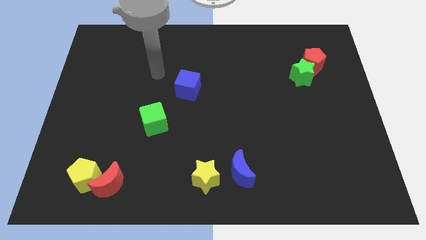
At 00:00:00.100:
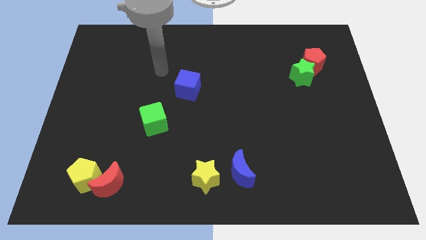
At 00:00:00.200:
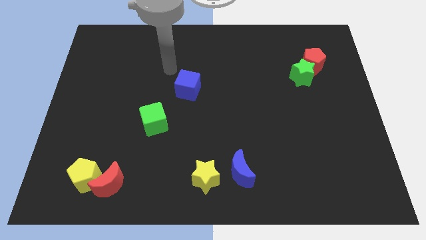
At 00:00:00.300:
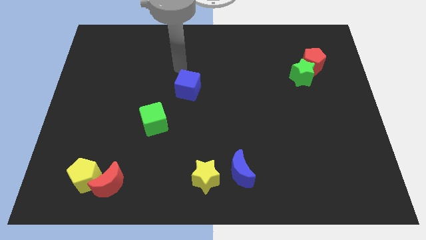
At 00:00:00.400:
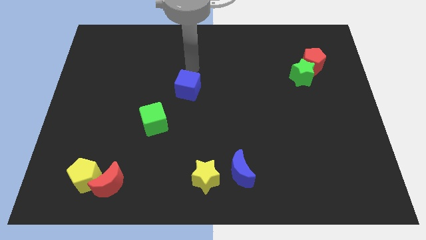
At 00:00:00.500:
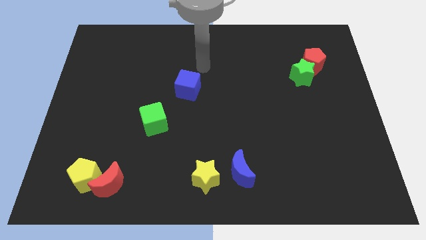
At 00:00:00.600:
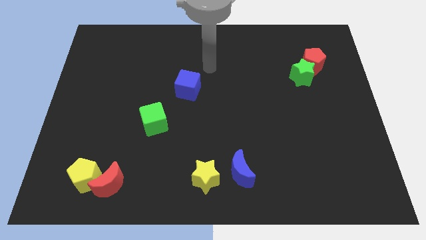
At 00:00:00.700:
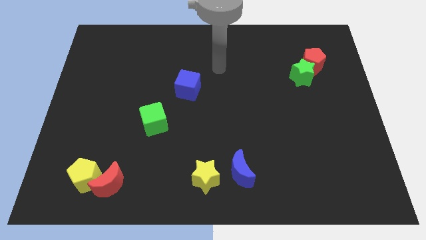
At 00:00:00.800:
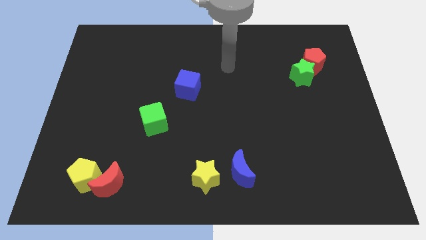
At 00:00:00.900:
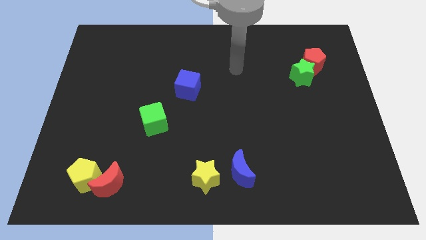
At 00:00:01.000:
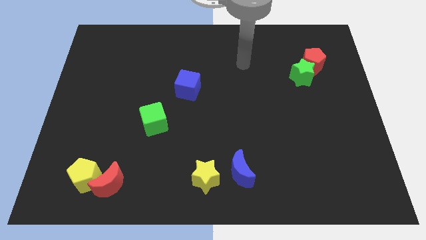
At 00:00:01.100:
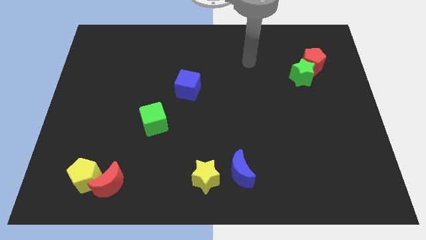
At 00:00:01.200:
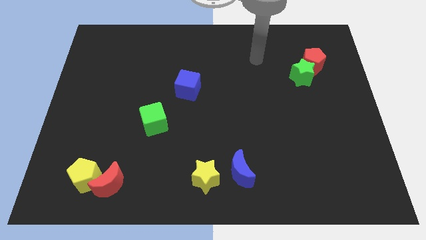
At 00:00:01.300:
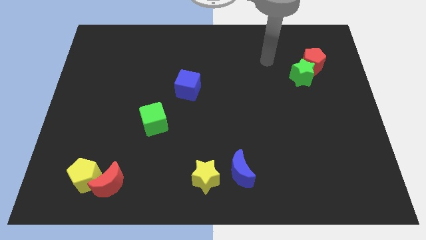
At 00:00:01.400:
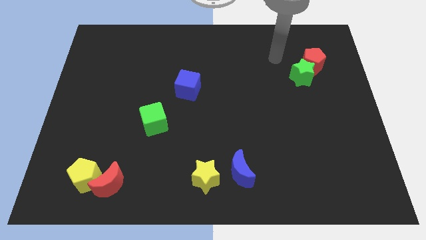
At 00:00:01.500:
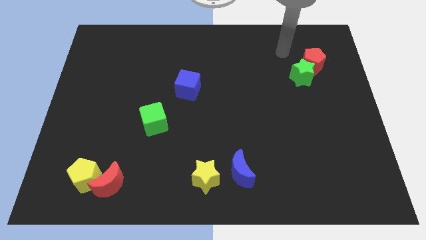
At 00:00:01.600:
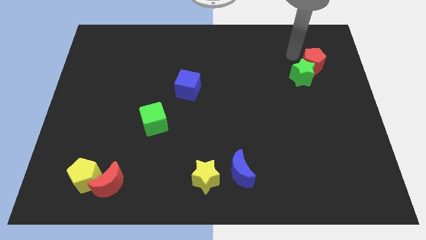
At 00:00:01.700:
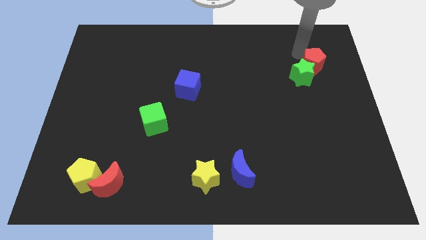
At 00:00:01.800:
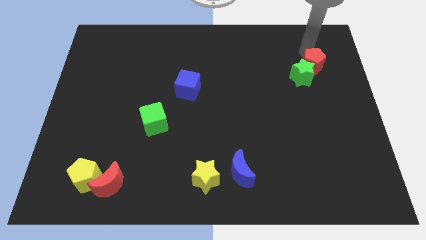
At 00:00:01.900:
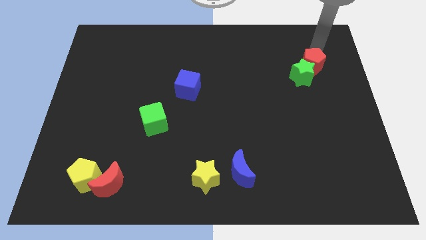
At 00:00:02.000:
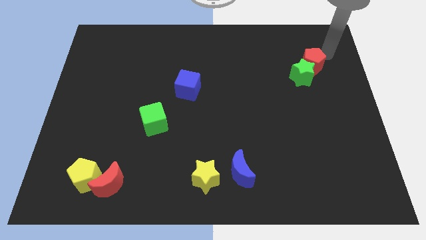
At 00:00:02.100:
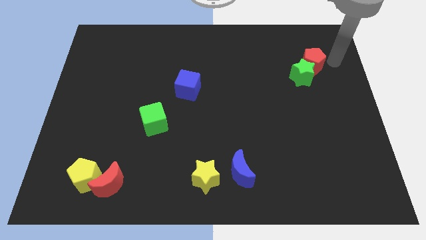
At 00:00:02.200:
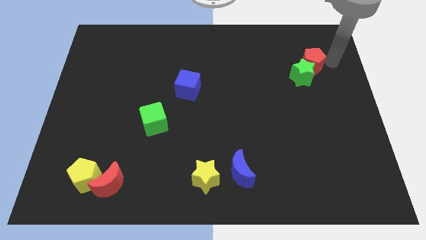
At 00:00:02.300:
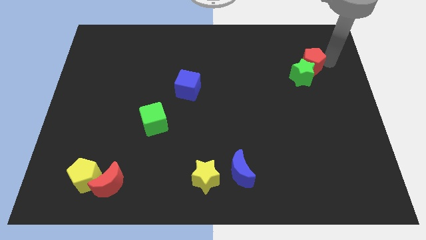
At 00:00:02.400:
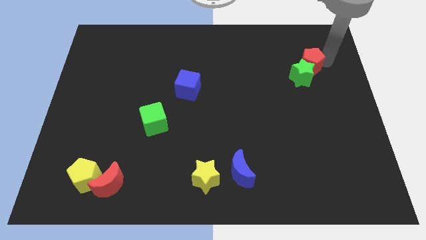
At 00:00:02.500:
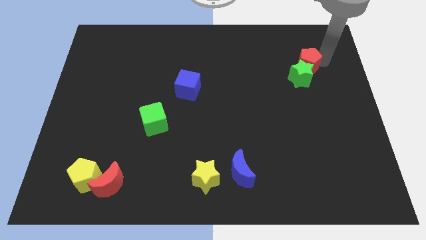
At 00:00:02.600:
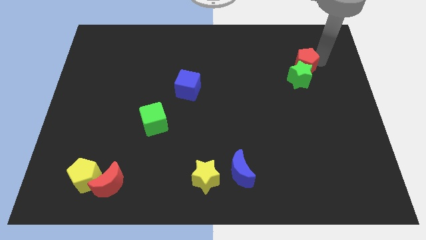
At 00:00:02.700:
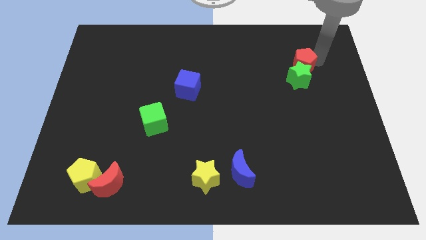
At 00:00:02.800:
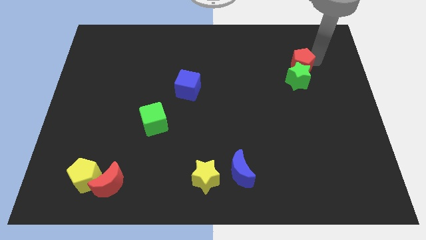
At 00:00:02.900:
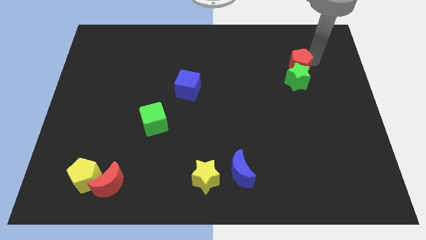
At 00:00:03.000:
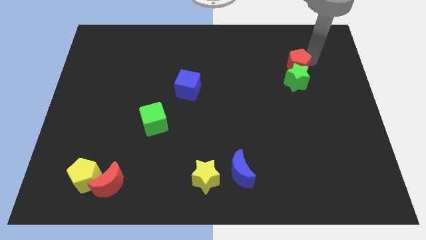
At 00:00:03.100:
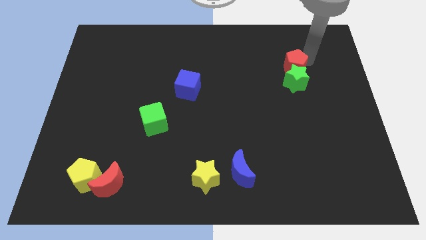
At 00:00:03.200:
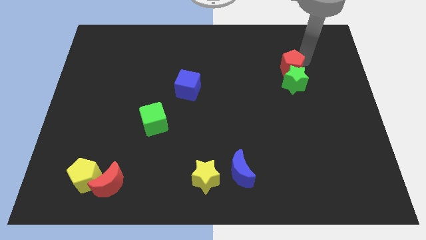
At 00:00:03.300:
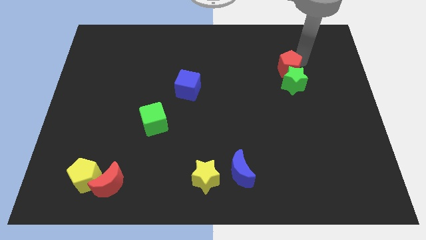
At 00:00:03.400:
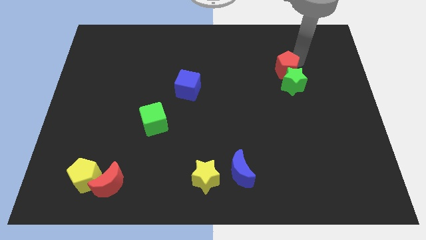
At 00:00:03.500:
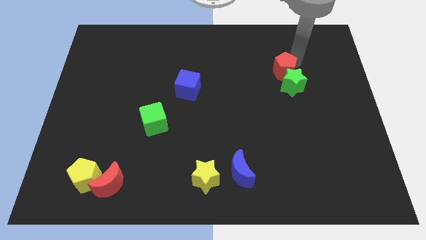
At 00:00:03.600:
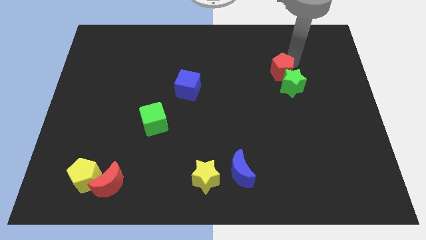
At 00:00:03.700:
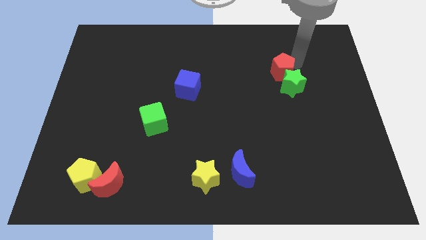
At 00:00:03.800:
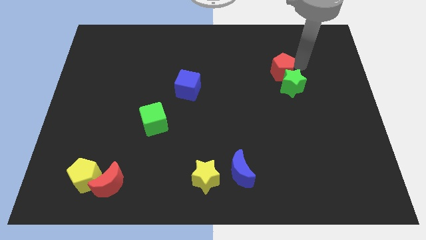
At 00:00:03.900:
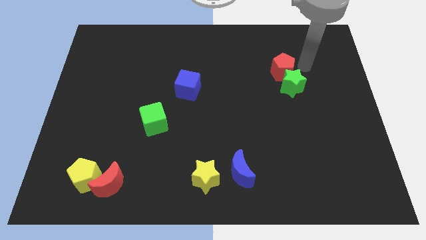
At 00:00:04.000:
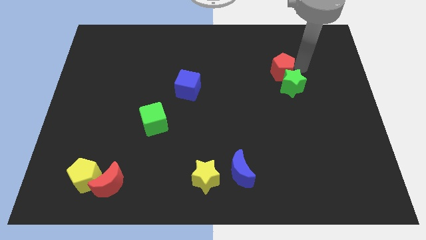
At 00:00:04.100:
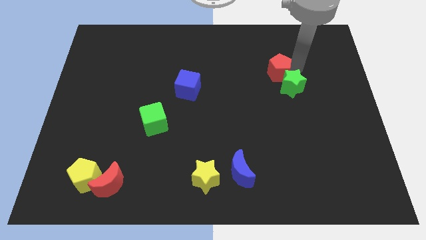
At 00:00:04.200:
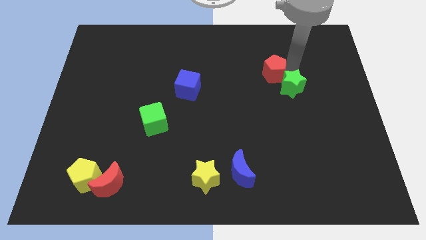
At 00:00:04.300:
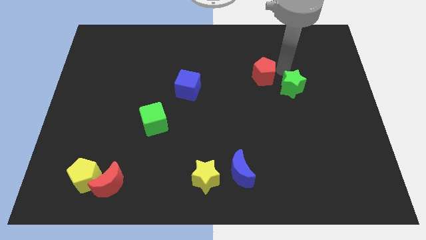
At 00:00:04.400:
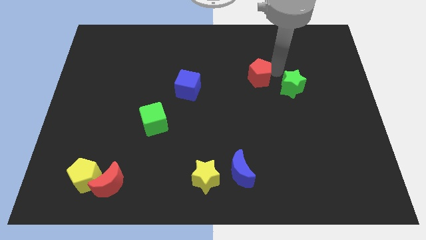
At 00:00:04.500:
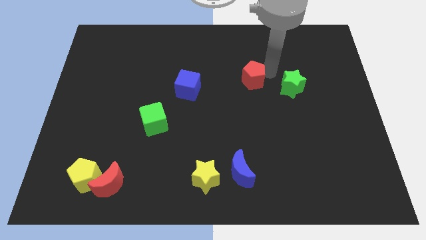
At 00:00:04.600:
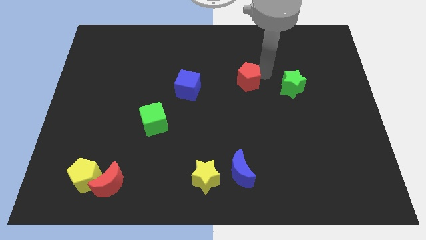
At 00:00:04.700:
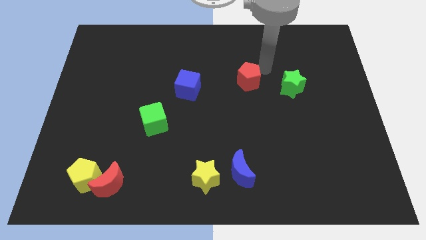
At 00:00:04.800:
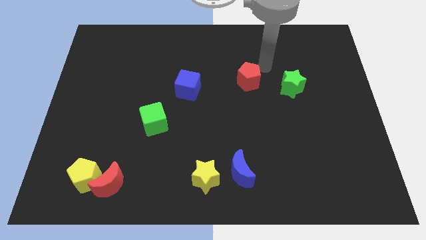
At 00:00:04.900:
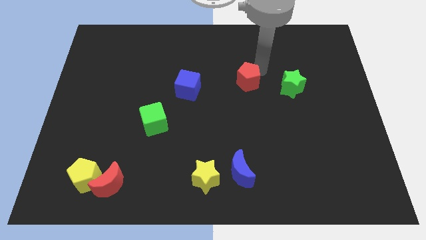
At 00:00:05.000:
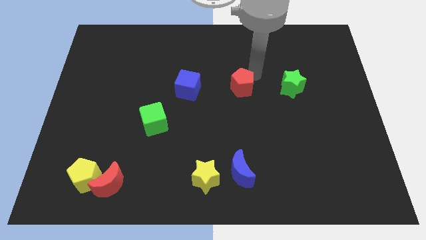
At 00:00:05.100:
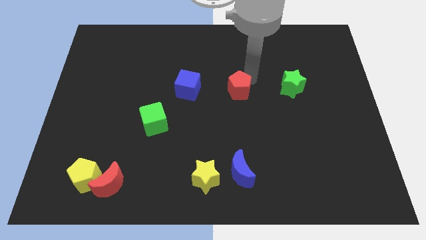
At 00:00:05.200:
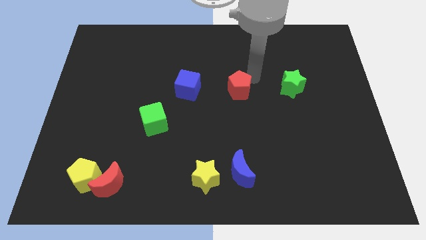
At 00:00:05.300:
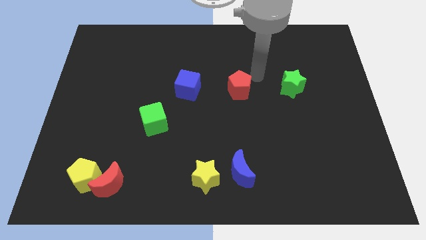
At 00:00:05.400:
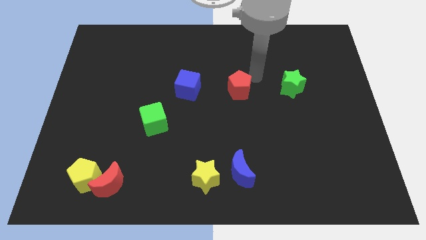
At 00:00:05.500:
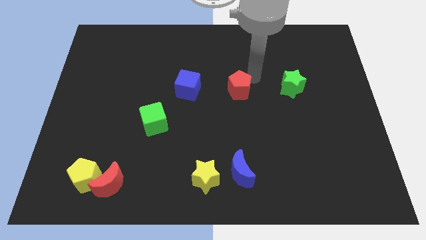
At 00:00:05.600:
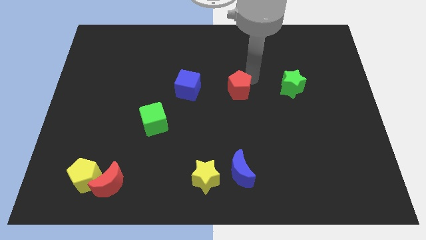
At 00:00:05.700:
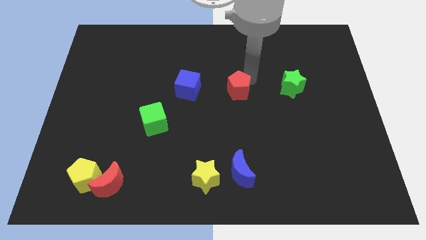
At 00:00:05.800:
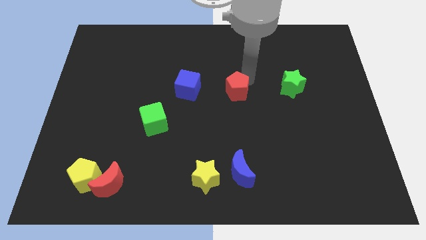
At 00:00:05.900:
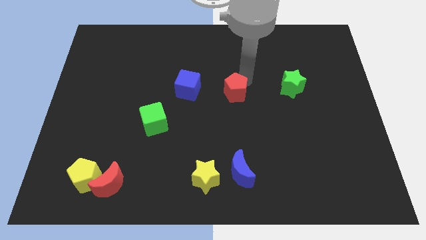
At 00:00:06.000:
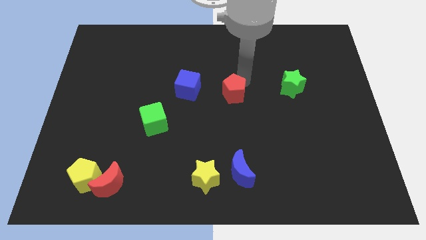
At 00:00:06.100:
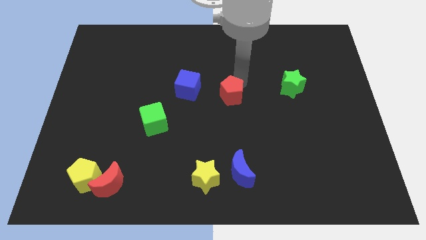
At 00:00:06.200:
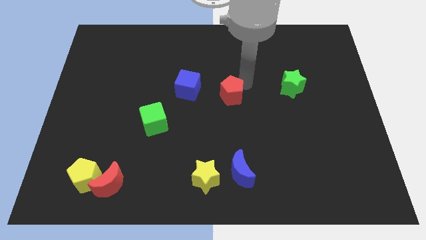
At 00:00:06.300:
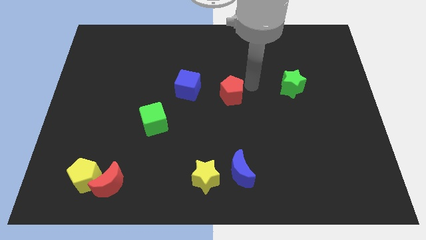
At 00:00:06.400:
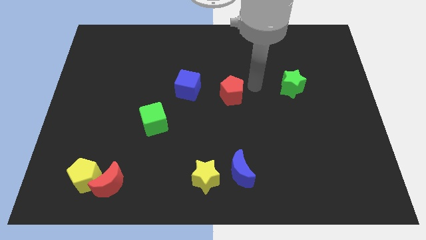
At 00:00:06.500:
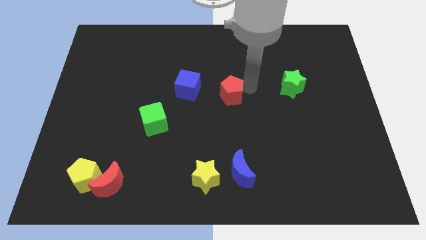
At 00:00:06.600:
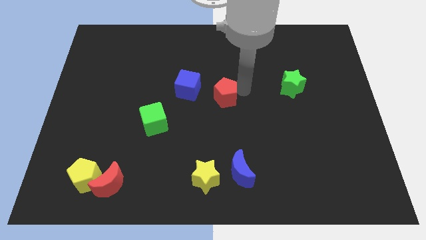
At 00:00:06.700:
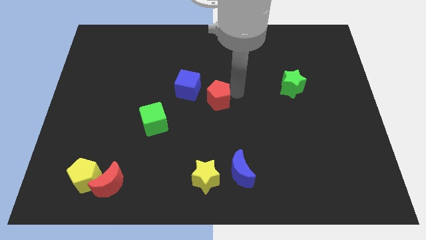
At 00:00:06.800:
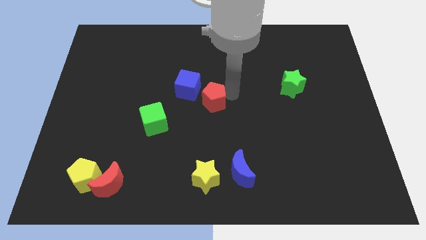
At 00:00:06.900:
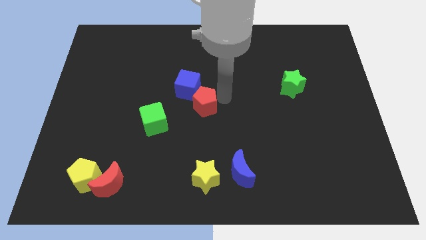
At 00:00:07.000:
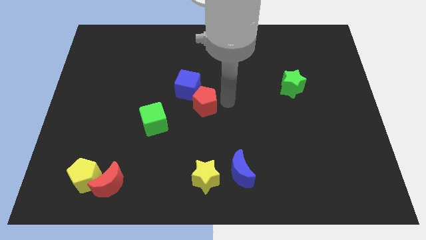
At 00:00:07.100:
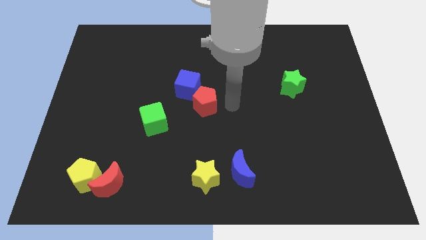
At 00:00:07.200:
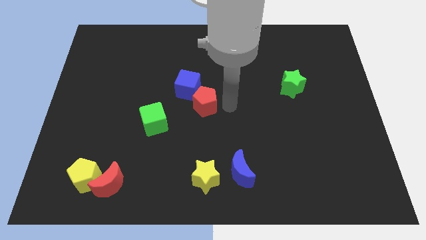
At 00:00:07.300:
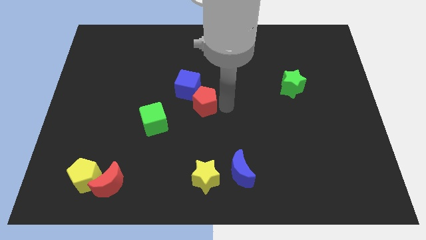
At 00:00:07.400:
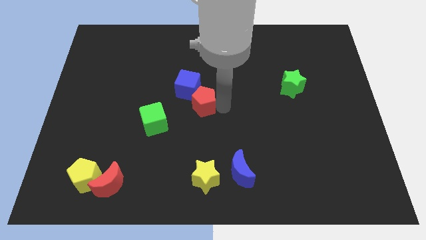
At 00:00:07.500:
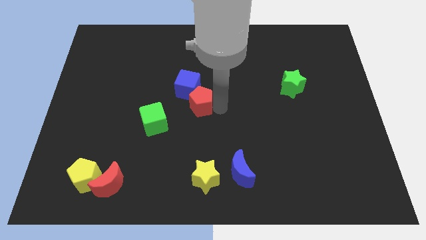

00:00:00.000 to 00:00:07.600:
move the red pentagon to the top right side of the green cube
